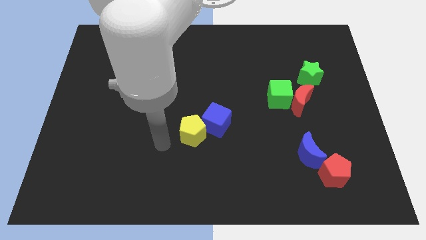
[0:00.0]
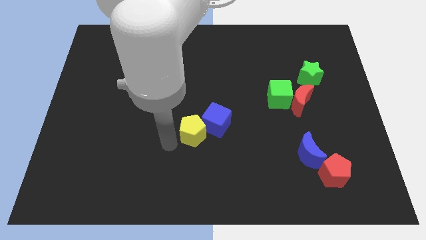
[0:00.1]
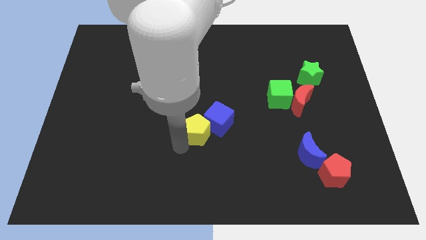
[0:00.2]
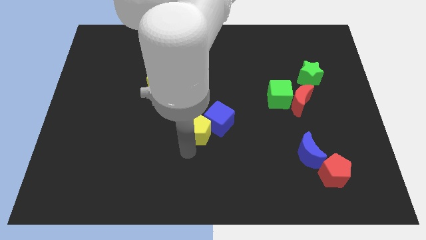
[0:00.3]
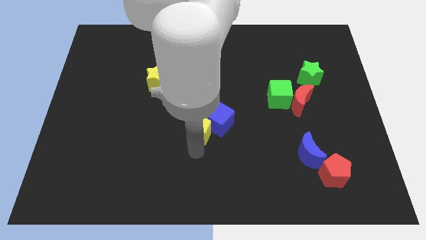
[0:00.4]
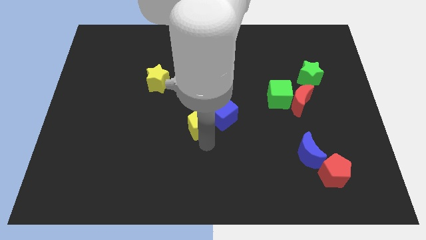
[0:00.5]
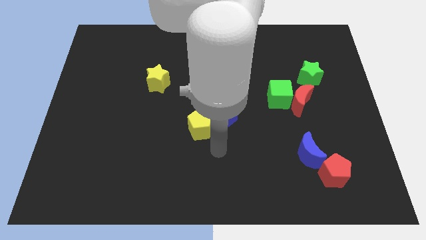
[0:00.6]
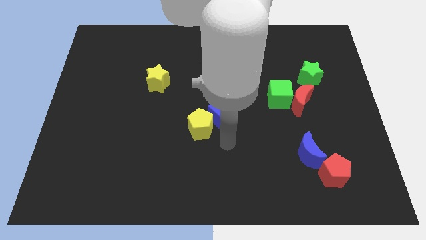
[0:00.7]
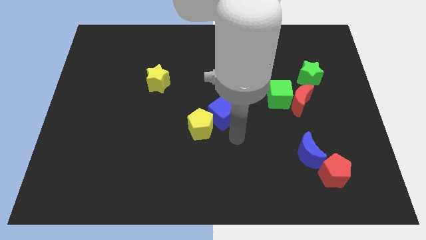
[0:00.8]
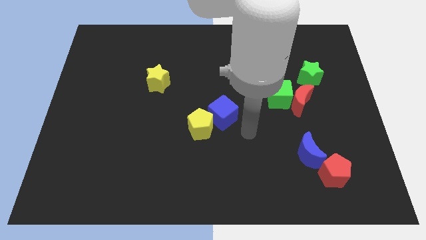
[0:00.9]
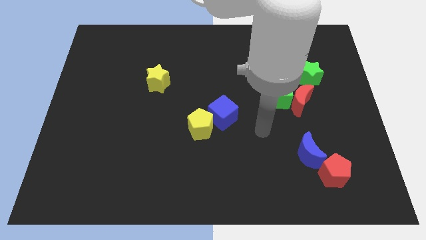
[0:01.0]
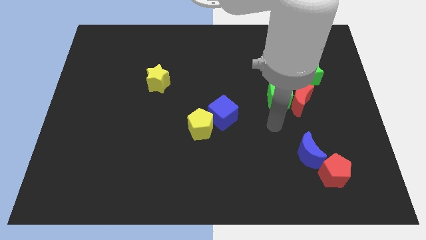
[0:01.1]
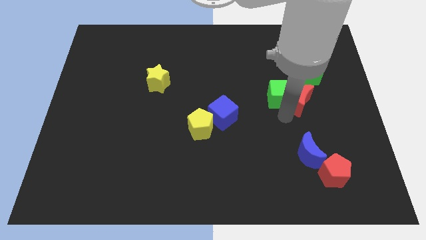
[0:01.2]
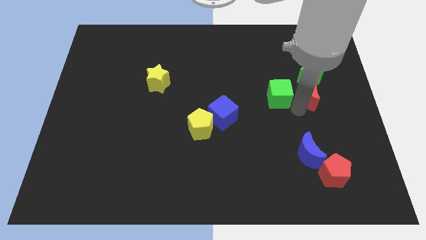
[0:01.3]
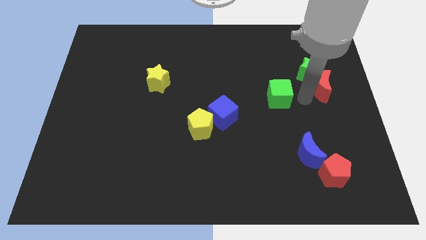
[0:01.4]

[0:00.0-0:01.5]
separate the green cube from the red moon

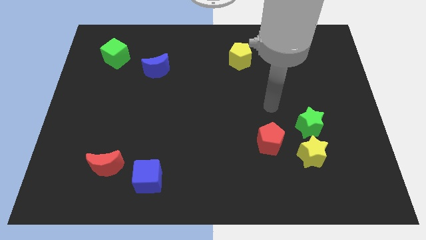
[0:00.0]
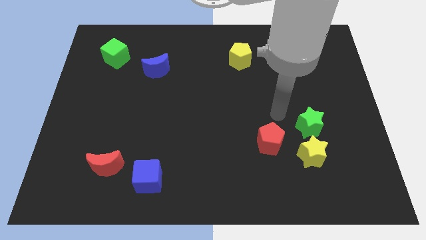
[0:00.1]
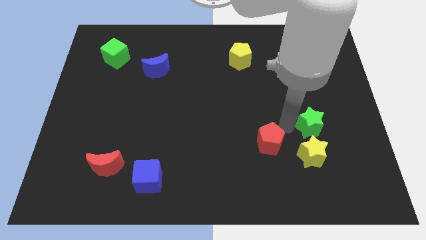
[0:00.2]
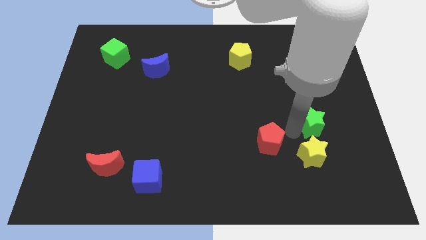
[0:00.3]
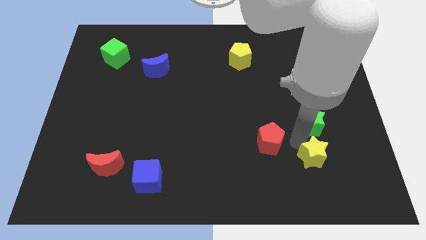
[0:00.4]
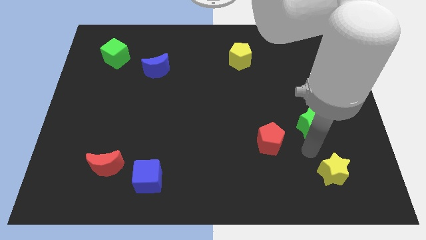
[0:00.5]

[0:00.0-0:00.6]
separate the green star from the yellow star

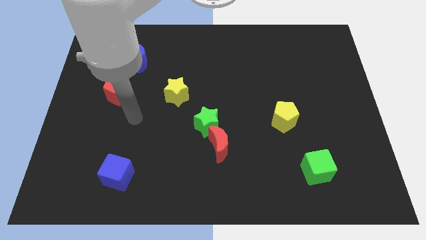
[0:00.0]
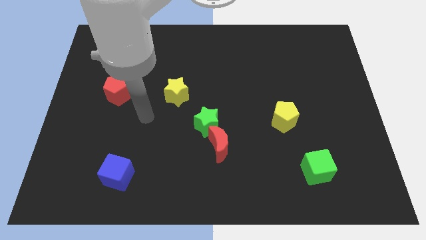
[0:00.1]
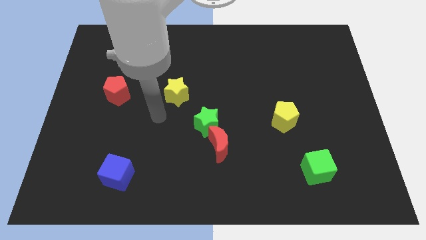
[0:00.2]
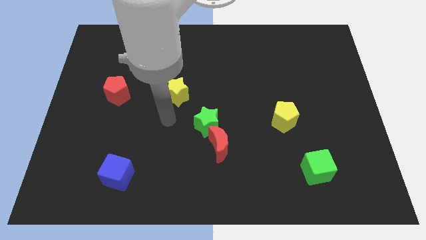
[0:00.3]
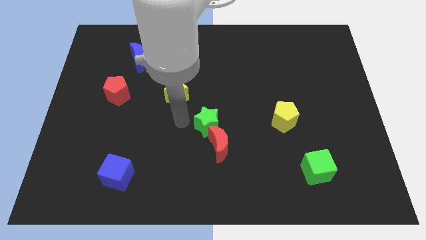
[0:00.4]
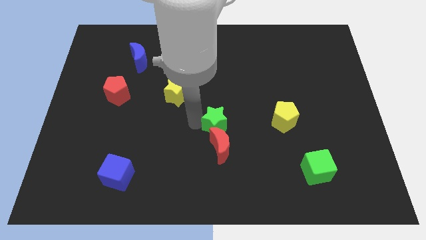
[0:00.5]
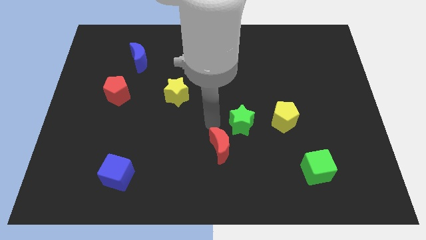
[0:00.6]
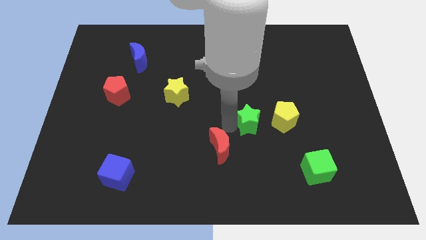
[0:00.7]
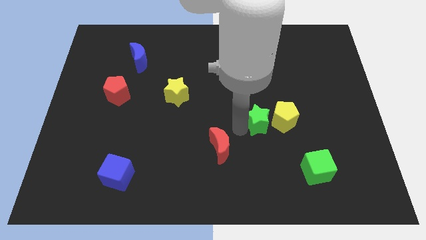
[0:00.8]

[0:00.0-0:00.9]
separate the red moon from the green star

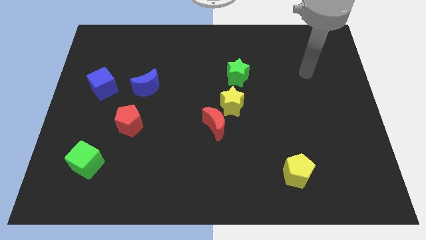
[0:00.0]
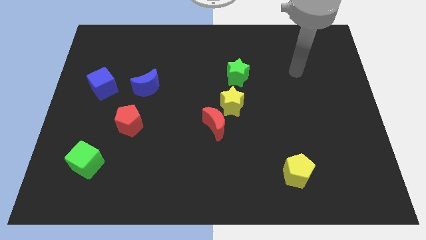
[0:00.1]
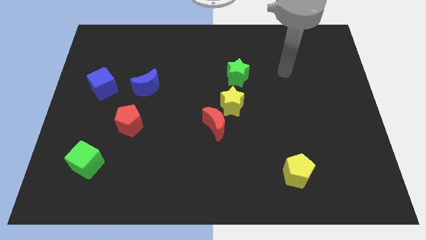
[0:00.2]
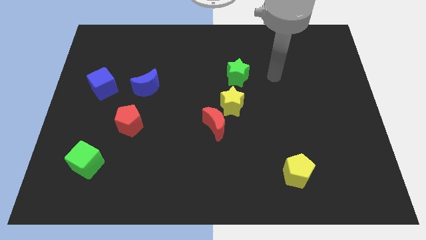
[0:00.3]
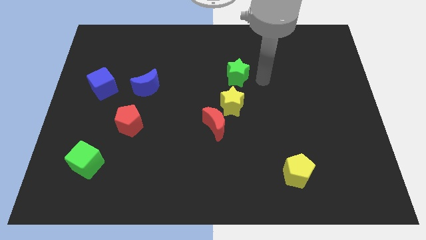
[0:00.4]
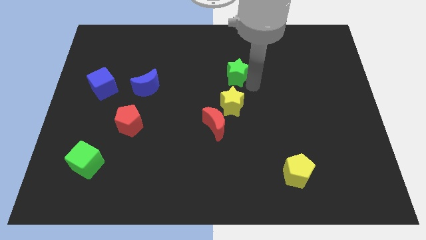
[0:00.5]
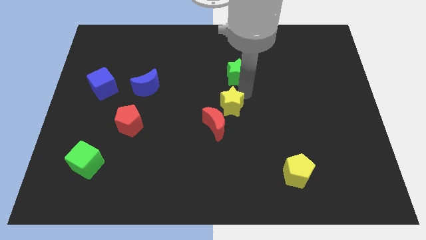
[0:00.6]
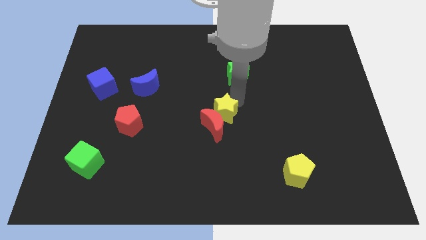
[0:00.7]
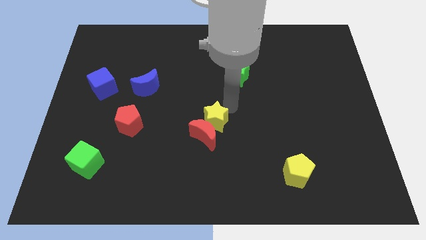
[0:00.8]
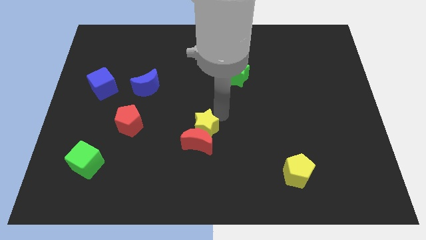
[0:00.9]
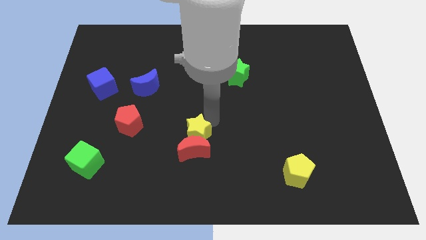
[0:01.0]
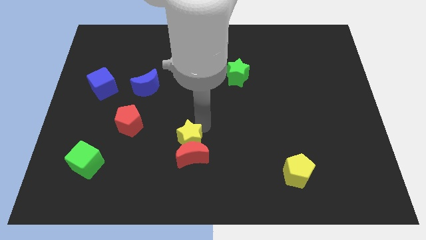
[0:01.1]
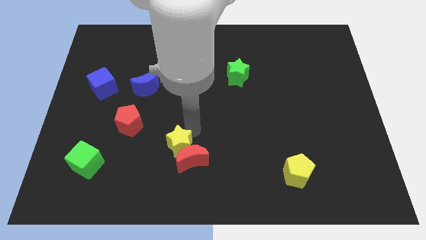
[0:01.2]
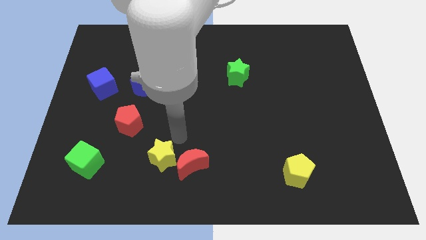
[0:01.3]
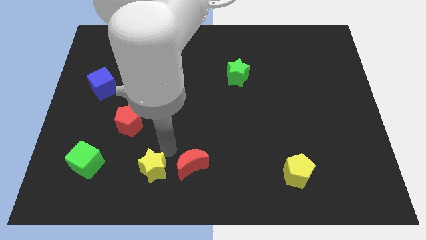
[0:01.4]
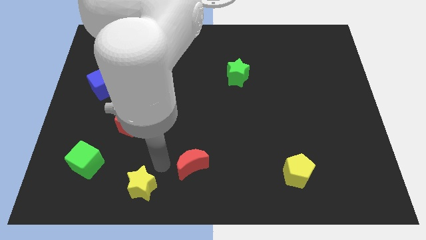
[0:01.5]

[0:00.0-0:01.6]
move the red moon away from the yellow star

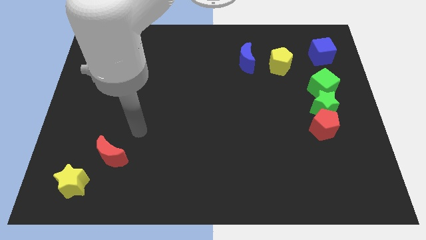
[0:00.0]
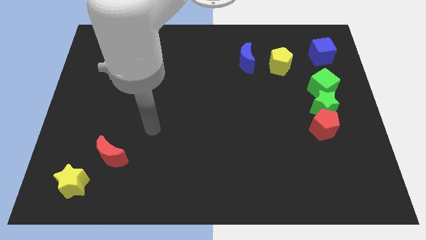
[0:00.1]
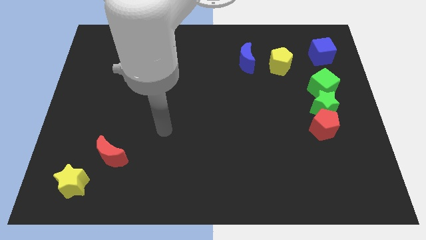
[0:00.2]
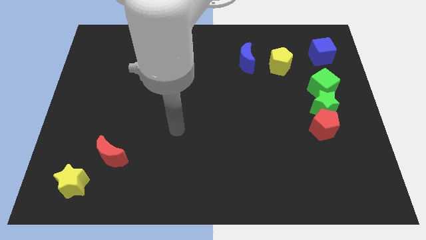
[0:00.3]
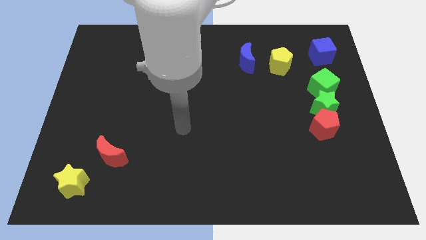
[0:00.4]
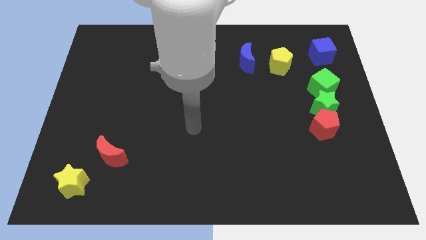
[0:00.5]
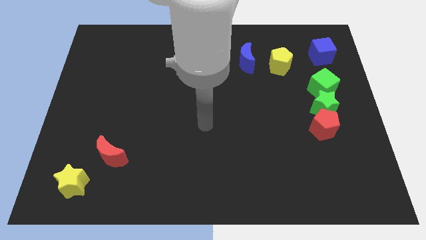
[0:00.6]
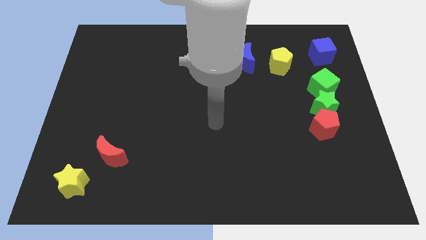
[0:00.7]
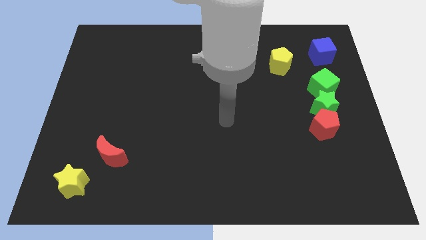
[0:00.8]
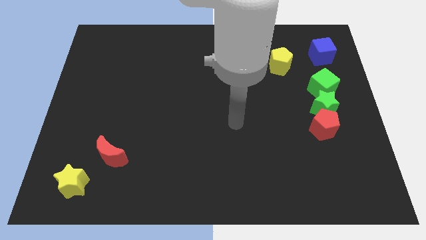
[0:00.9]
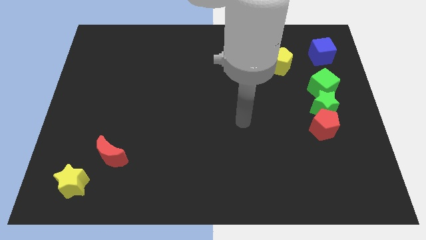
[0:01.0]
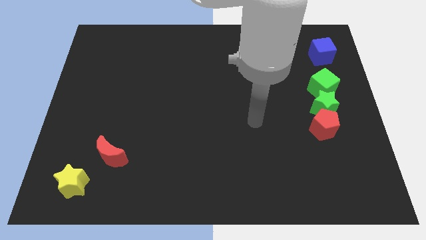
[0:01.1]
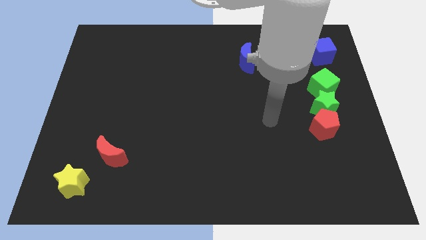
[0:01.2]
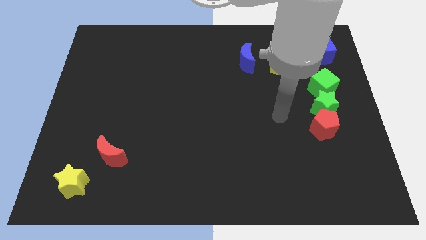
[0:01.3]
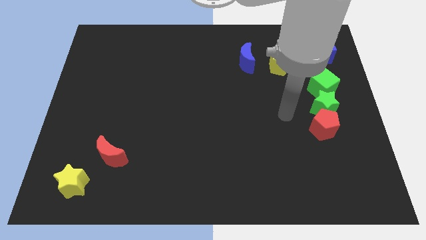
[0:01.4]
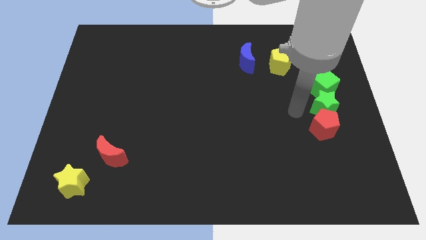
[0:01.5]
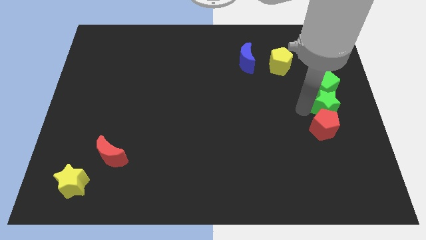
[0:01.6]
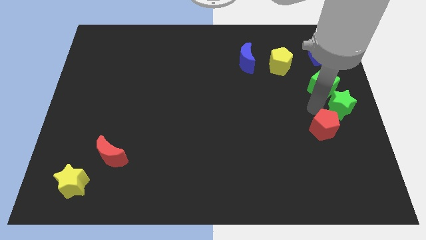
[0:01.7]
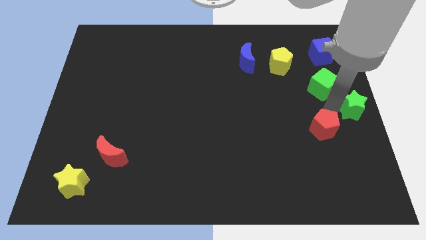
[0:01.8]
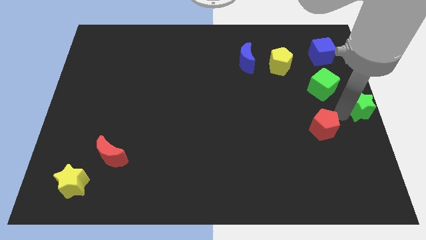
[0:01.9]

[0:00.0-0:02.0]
pull the red pentagon apart from the green star

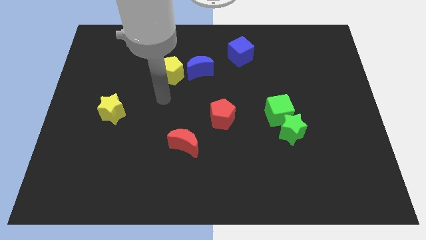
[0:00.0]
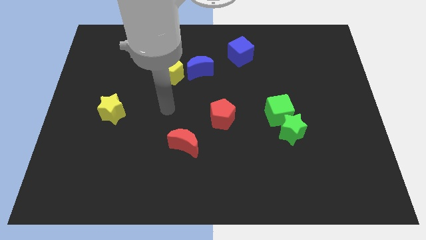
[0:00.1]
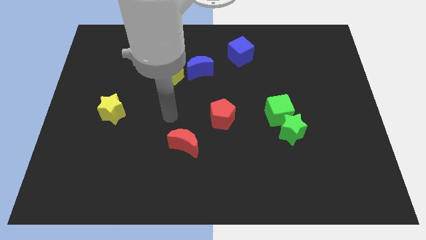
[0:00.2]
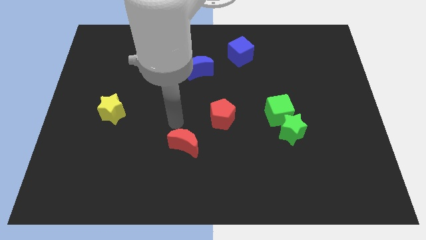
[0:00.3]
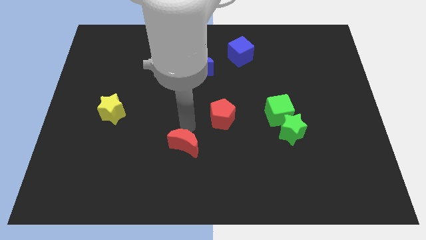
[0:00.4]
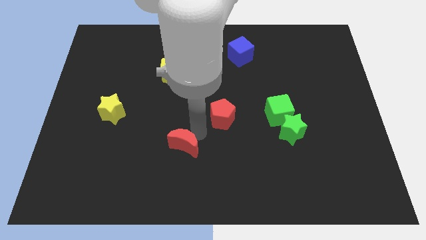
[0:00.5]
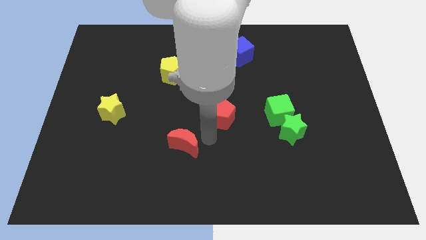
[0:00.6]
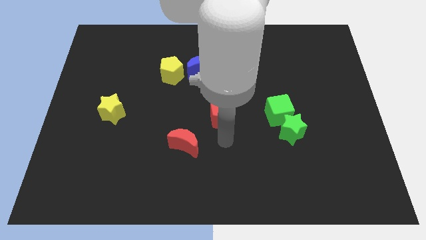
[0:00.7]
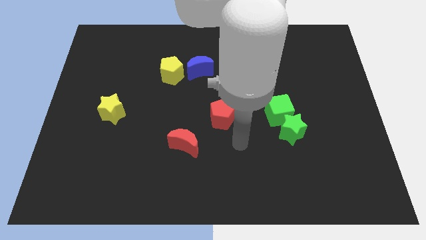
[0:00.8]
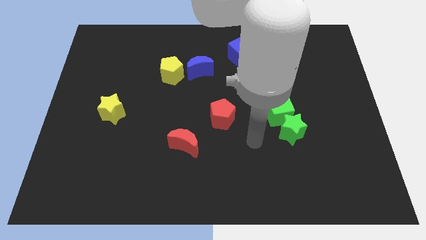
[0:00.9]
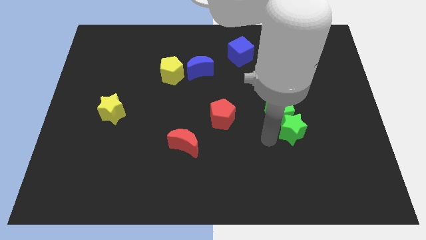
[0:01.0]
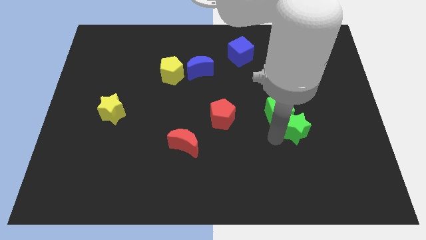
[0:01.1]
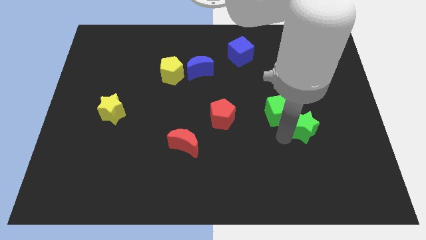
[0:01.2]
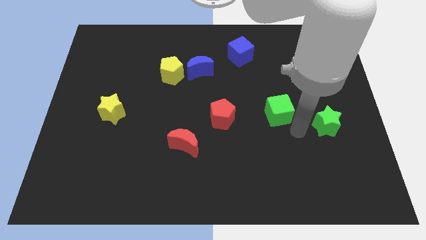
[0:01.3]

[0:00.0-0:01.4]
separate the green cube from the green star

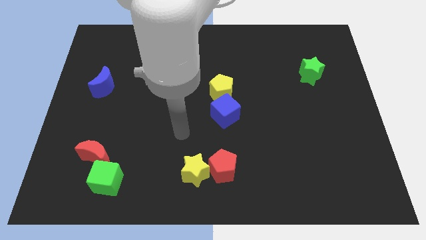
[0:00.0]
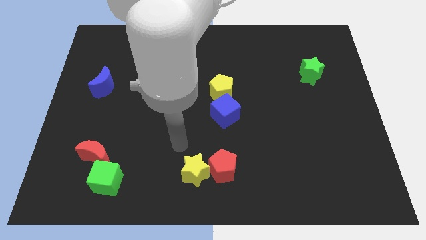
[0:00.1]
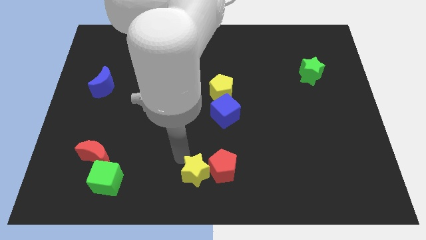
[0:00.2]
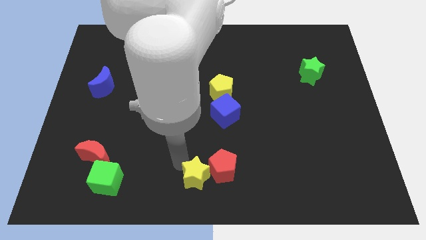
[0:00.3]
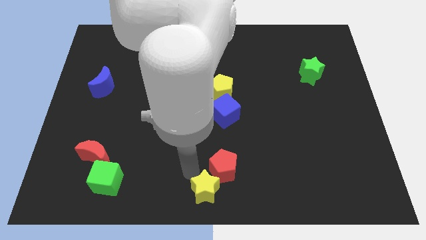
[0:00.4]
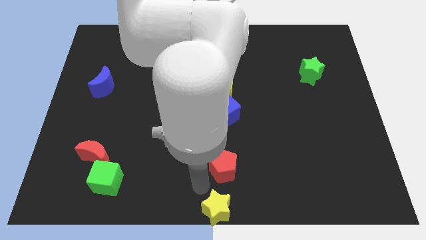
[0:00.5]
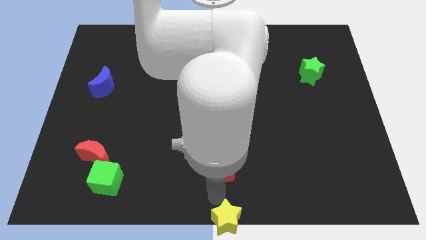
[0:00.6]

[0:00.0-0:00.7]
separate the red pentagon from the yellow star

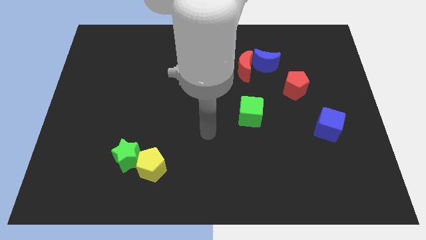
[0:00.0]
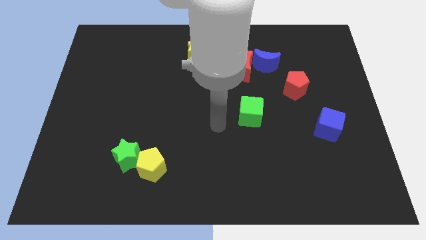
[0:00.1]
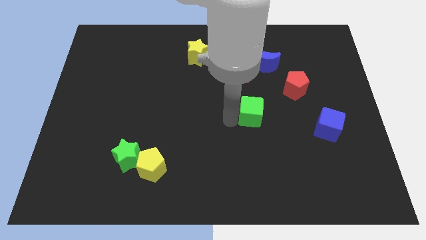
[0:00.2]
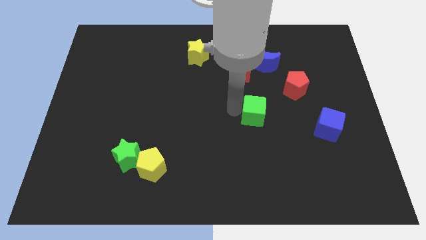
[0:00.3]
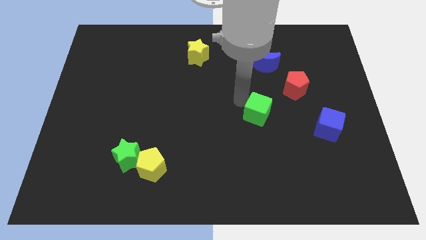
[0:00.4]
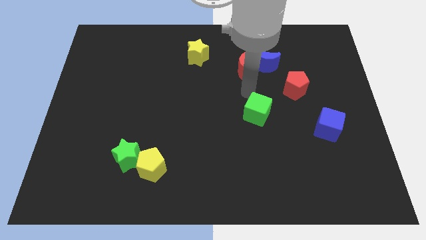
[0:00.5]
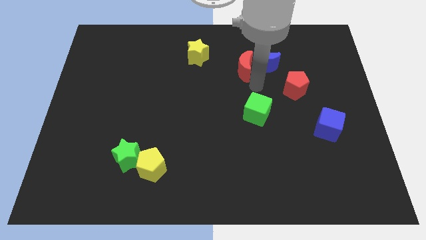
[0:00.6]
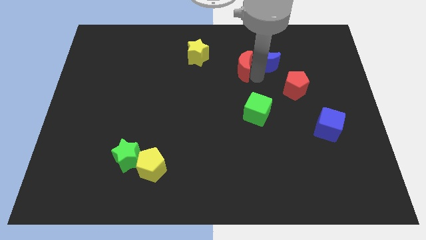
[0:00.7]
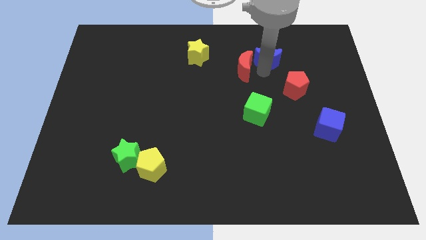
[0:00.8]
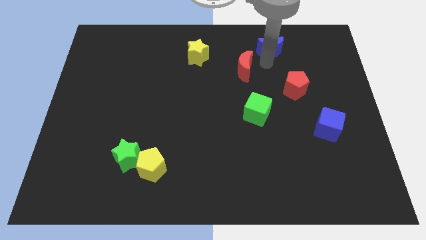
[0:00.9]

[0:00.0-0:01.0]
pull the red moon apart from the blue moon
